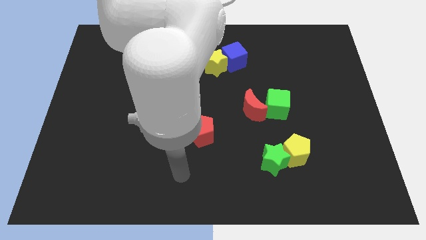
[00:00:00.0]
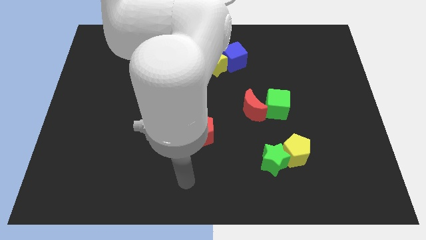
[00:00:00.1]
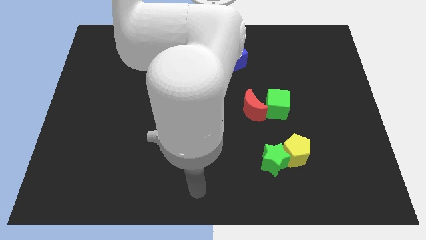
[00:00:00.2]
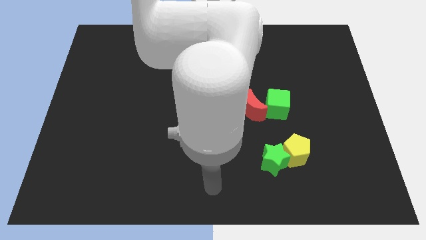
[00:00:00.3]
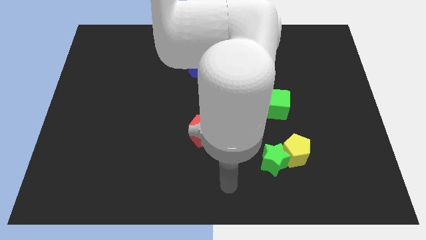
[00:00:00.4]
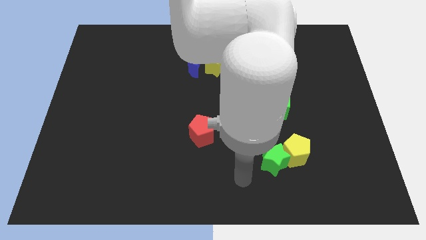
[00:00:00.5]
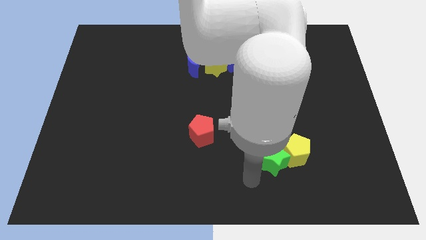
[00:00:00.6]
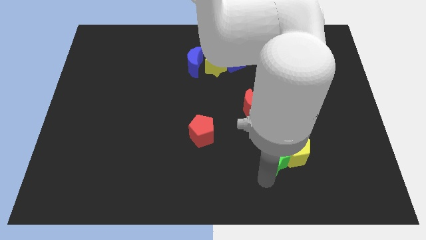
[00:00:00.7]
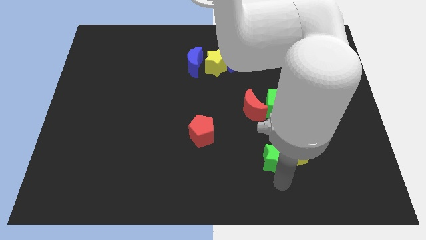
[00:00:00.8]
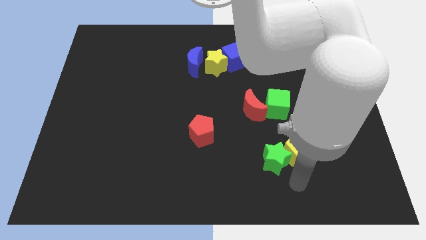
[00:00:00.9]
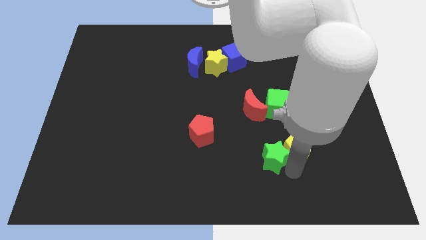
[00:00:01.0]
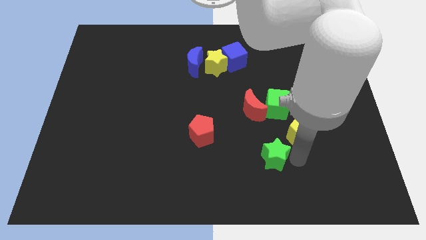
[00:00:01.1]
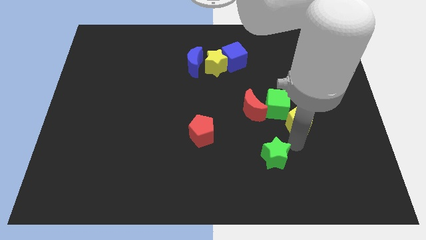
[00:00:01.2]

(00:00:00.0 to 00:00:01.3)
separate the green star from the yellow pentagon

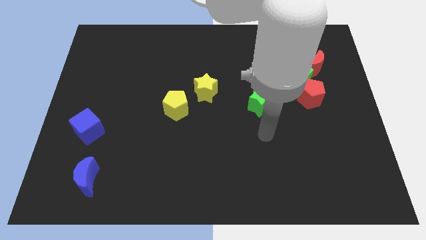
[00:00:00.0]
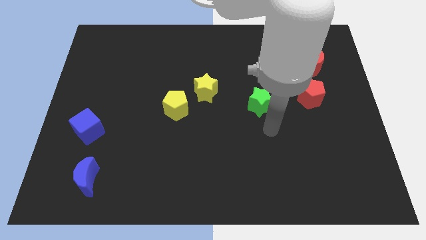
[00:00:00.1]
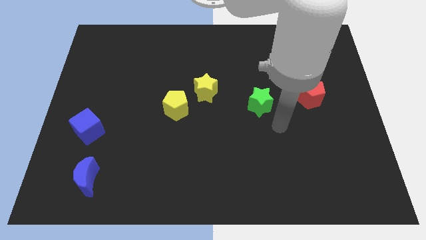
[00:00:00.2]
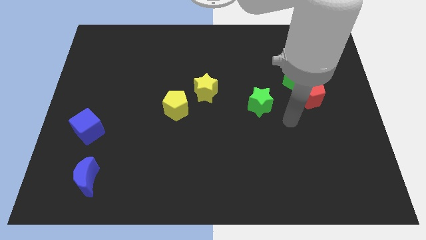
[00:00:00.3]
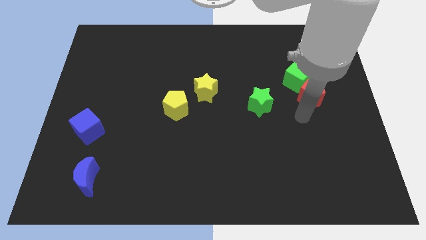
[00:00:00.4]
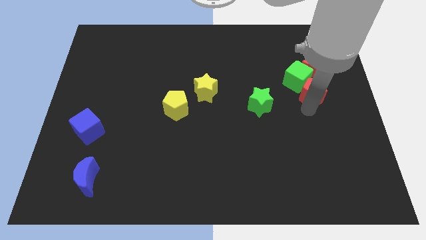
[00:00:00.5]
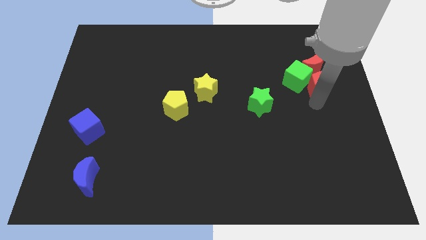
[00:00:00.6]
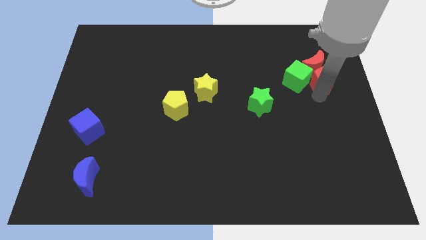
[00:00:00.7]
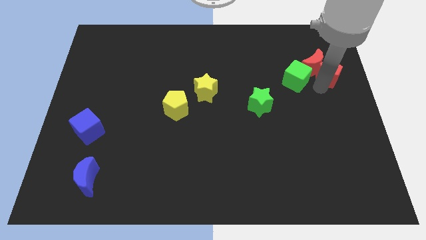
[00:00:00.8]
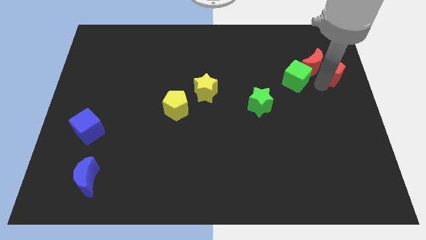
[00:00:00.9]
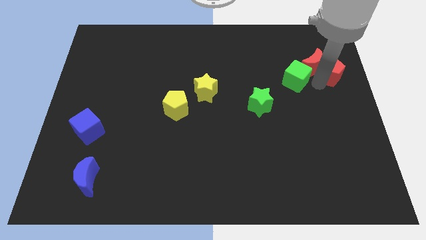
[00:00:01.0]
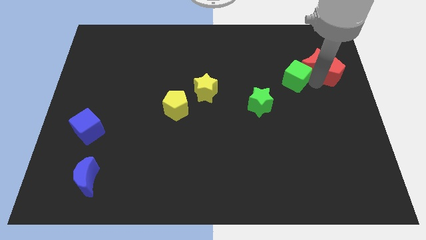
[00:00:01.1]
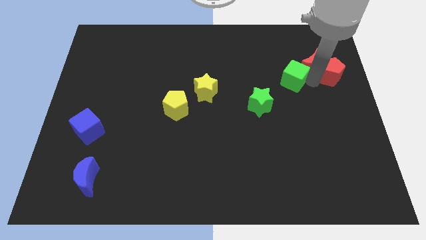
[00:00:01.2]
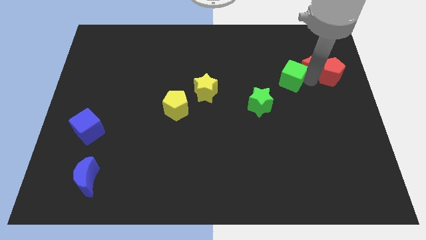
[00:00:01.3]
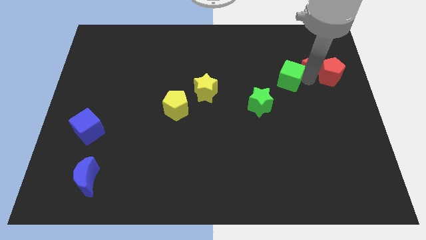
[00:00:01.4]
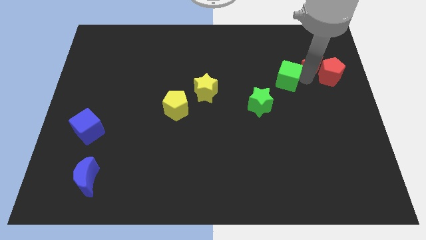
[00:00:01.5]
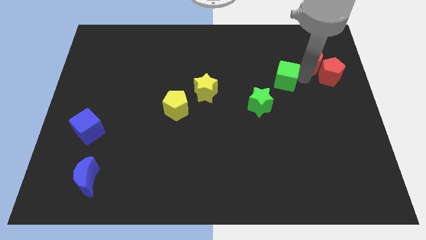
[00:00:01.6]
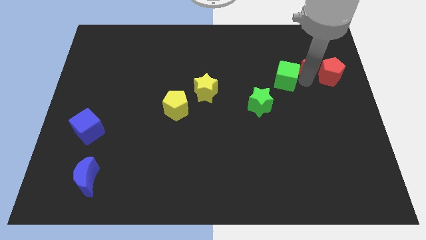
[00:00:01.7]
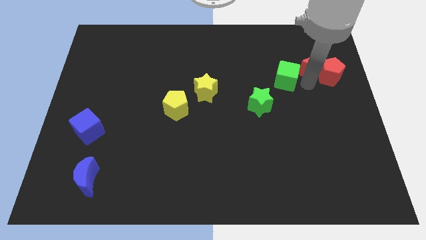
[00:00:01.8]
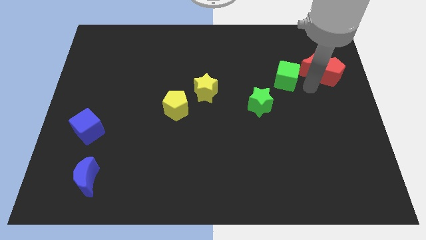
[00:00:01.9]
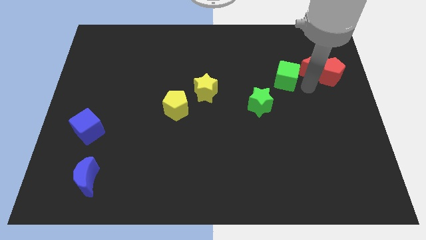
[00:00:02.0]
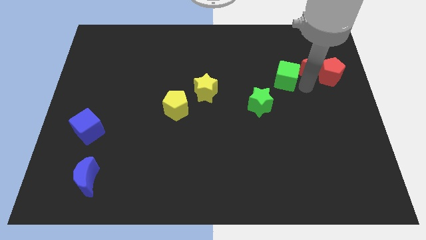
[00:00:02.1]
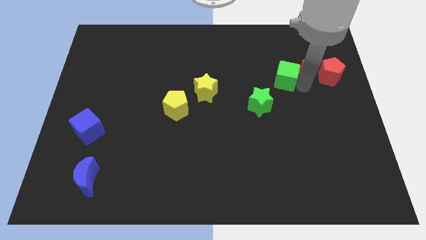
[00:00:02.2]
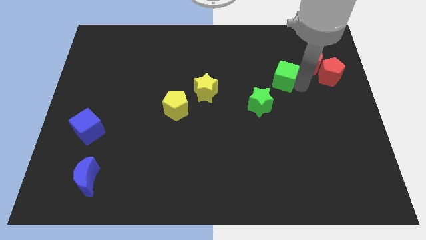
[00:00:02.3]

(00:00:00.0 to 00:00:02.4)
move the green cube away from the red moon and red pentagon

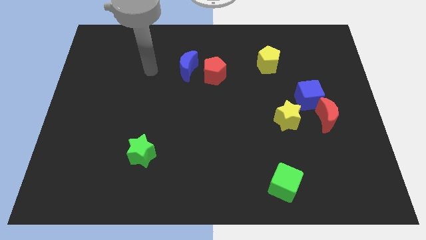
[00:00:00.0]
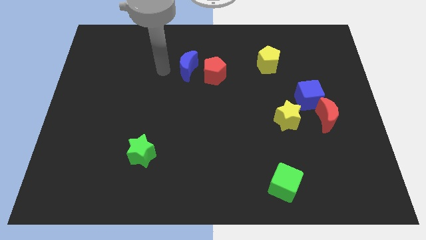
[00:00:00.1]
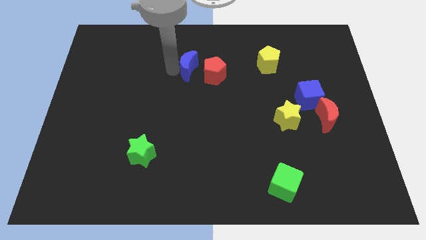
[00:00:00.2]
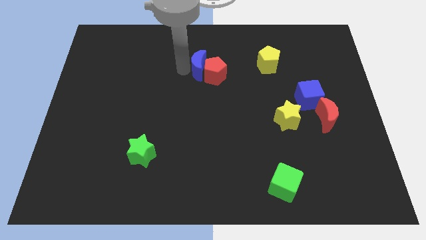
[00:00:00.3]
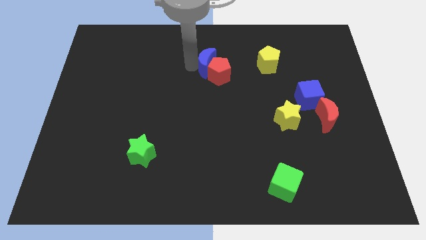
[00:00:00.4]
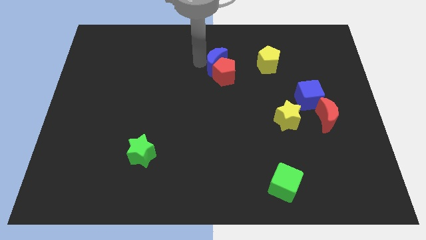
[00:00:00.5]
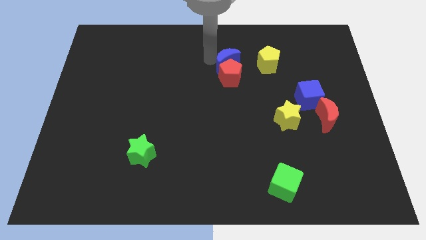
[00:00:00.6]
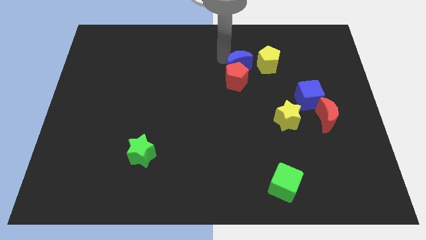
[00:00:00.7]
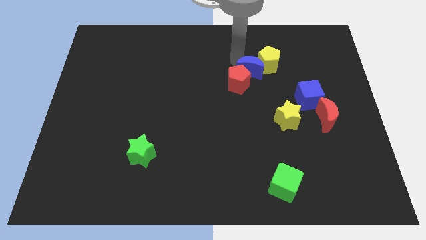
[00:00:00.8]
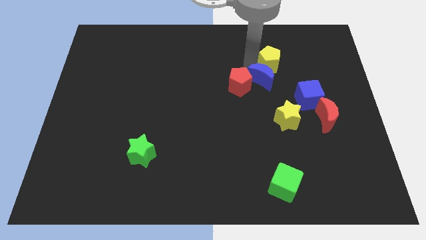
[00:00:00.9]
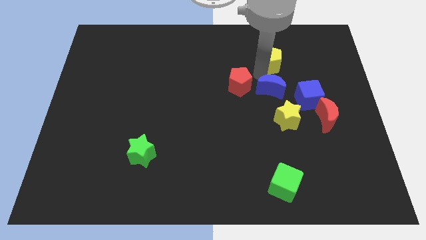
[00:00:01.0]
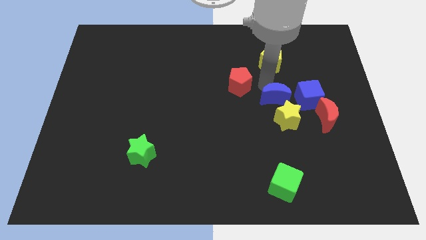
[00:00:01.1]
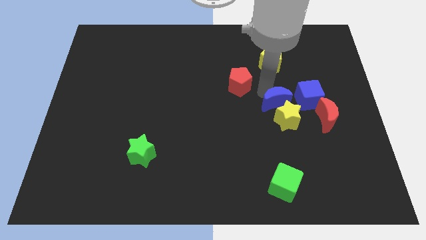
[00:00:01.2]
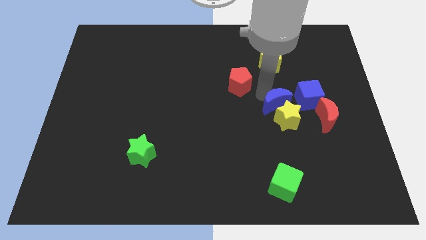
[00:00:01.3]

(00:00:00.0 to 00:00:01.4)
pull the red pentagon apart from the blue moon

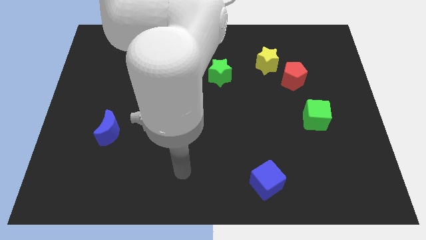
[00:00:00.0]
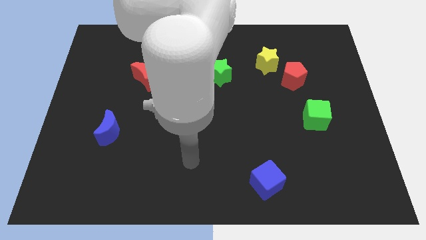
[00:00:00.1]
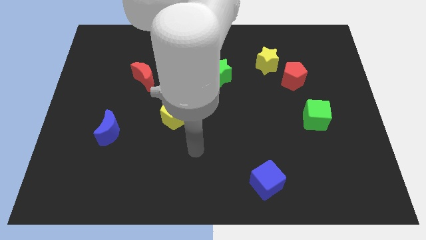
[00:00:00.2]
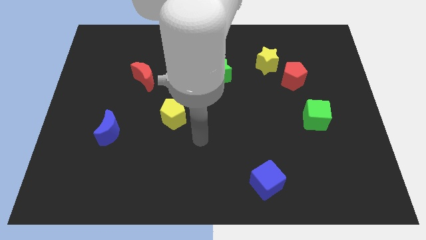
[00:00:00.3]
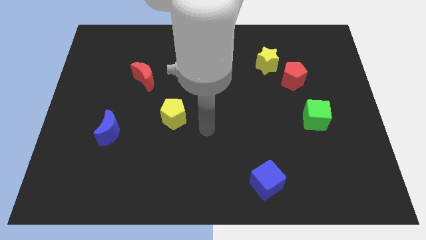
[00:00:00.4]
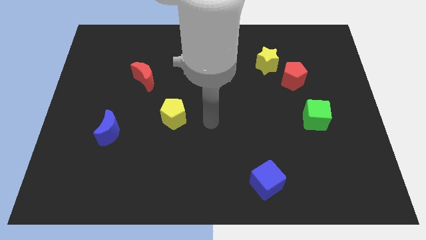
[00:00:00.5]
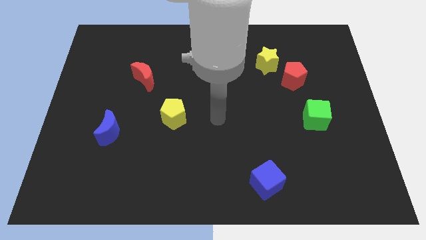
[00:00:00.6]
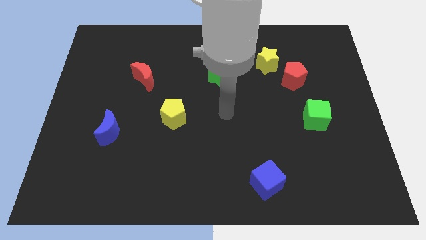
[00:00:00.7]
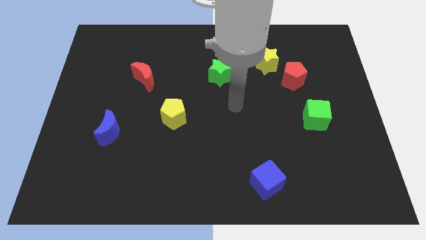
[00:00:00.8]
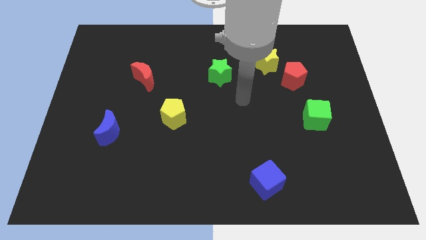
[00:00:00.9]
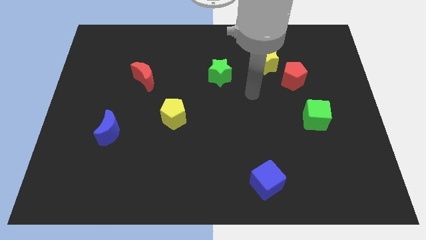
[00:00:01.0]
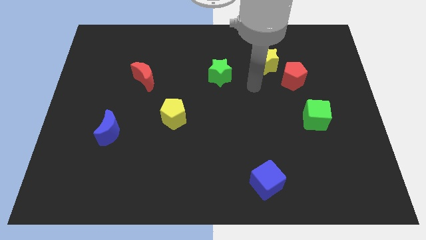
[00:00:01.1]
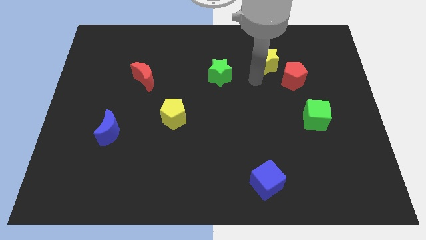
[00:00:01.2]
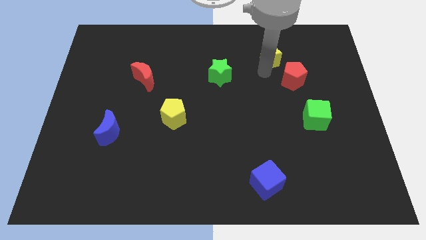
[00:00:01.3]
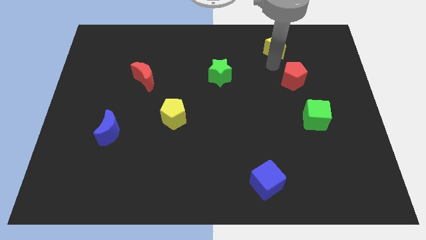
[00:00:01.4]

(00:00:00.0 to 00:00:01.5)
move the red pentagon away from the yellow star

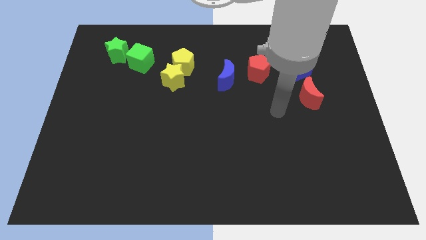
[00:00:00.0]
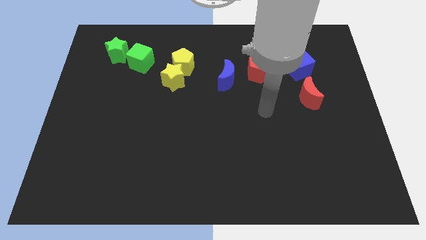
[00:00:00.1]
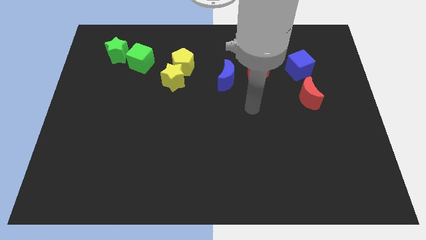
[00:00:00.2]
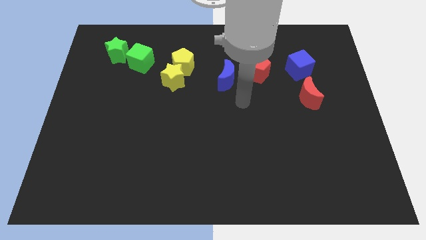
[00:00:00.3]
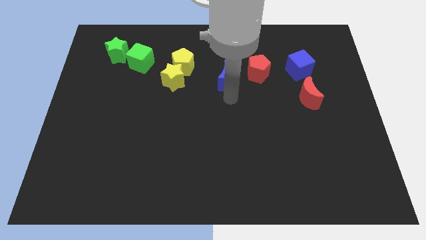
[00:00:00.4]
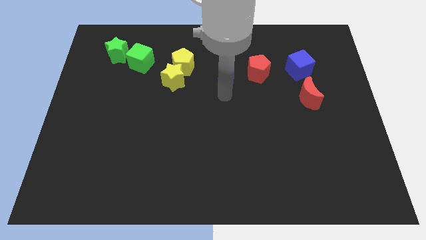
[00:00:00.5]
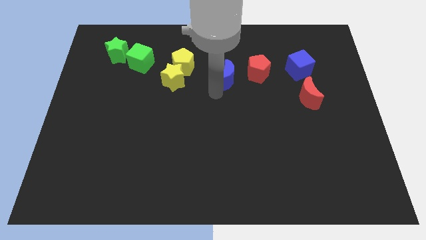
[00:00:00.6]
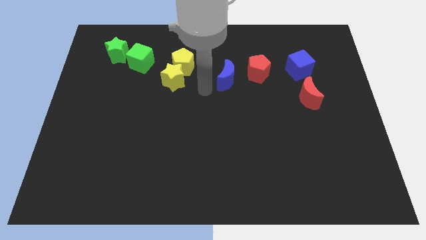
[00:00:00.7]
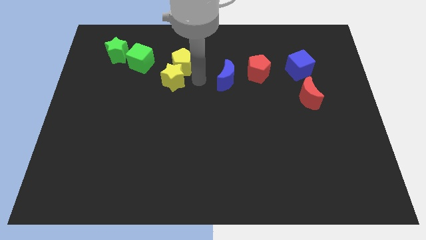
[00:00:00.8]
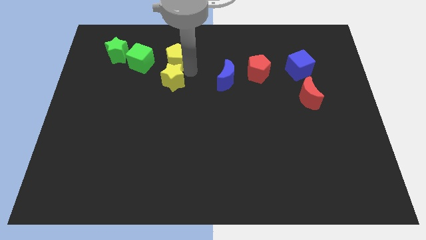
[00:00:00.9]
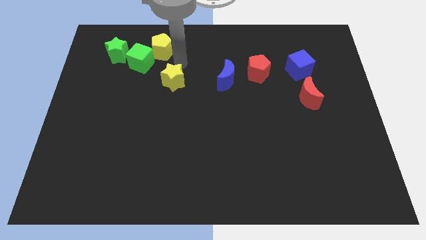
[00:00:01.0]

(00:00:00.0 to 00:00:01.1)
pull the yellow star apart from the yellow pentagon

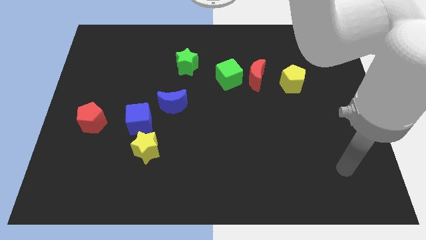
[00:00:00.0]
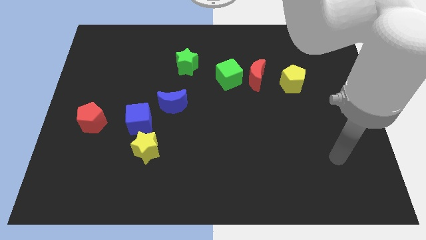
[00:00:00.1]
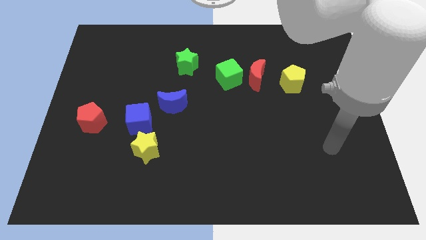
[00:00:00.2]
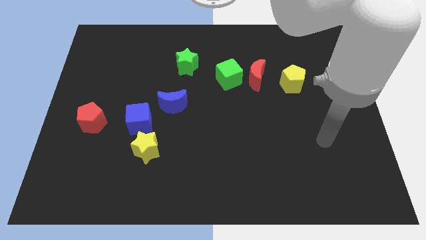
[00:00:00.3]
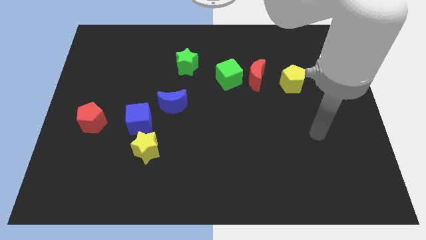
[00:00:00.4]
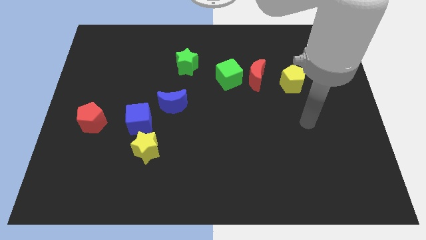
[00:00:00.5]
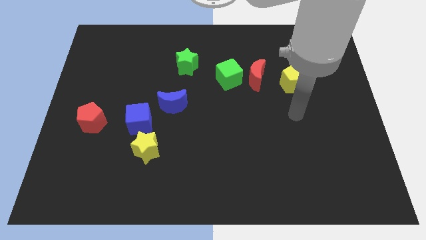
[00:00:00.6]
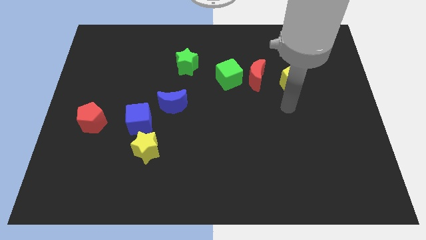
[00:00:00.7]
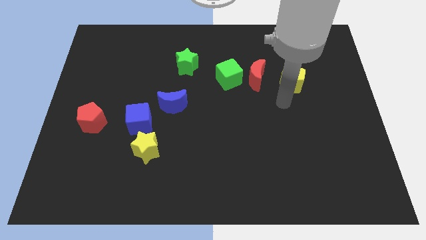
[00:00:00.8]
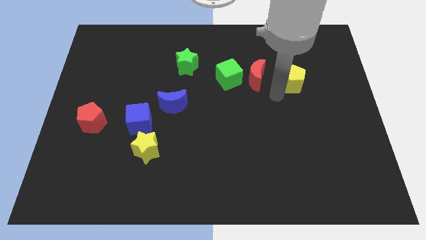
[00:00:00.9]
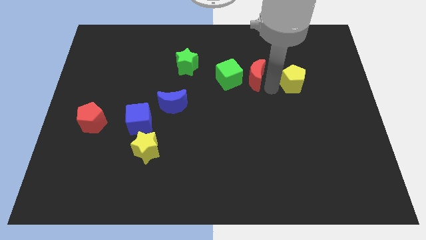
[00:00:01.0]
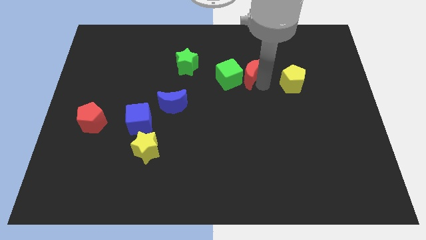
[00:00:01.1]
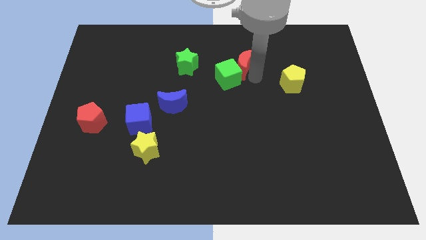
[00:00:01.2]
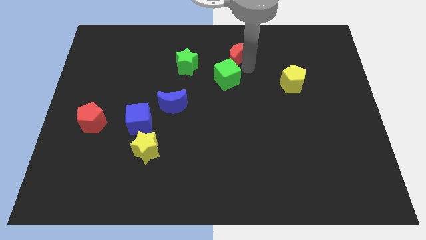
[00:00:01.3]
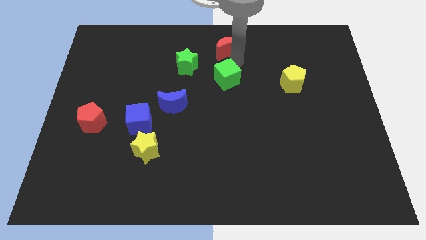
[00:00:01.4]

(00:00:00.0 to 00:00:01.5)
move the green cube away from the red moon

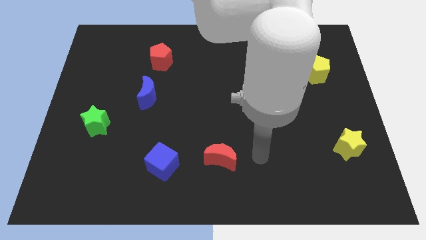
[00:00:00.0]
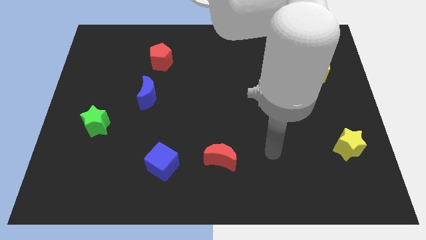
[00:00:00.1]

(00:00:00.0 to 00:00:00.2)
pull the green cube apart from the yellow pentagon
